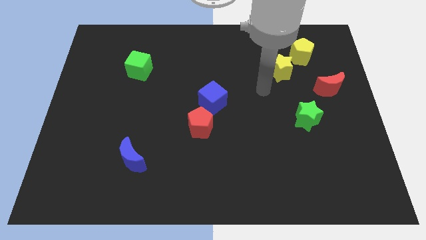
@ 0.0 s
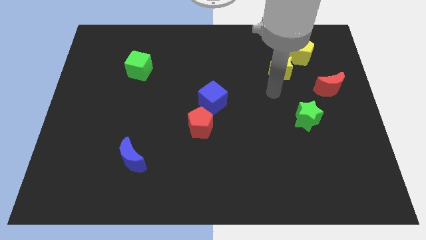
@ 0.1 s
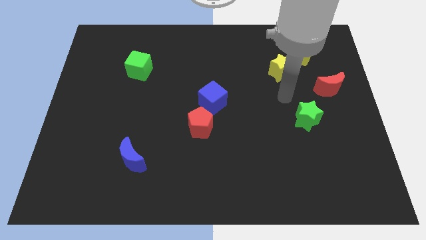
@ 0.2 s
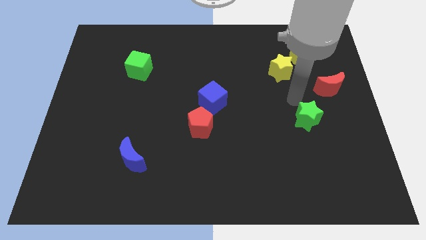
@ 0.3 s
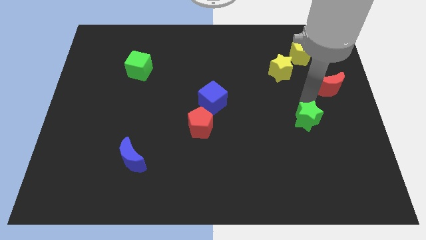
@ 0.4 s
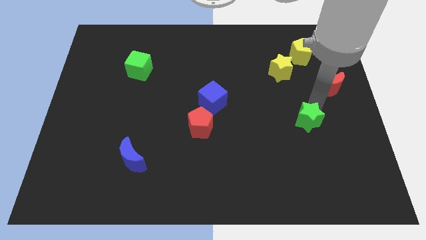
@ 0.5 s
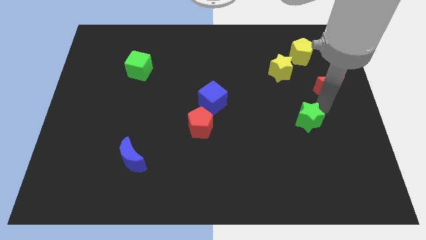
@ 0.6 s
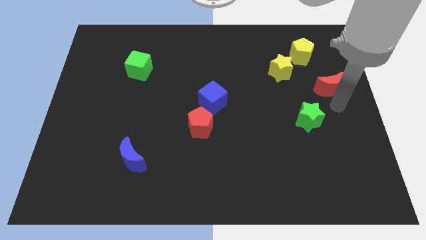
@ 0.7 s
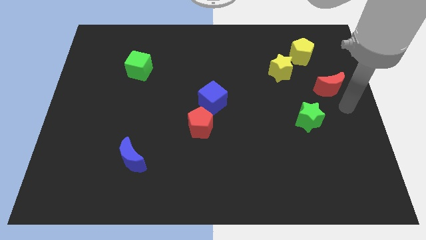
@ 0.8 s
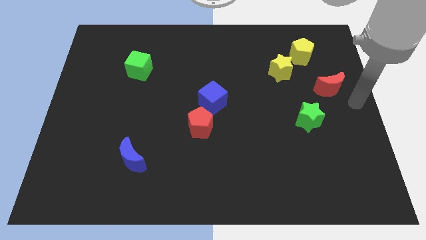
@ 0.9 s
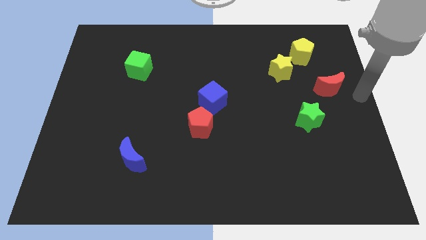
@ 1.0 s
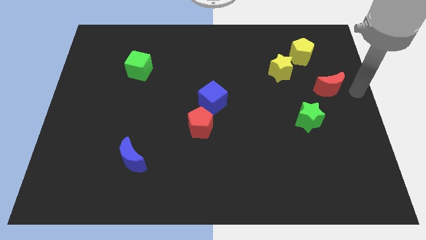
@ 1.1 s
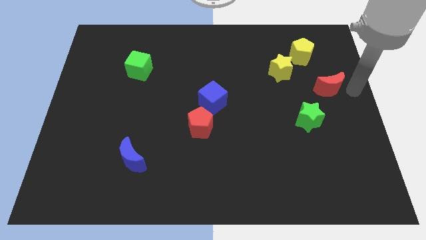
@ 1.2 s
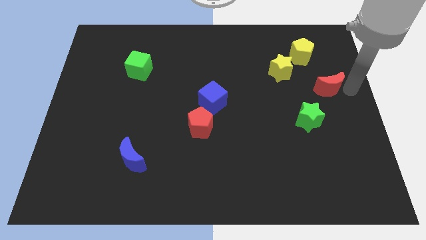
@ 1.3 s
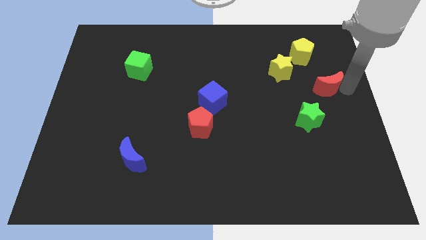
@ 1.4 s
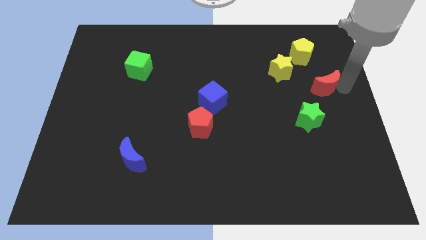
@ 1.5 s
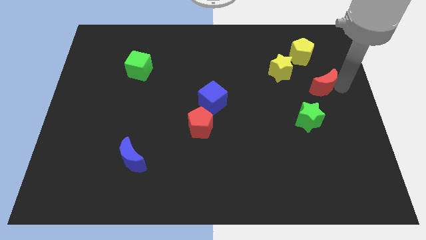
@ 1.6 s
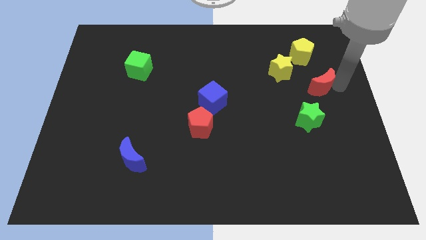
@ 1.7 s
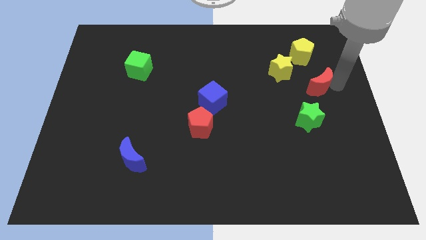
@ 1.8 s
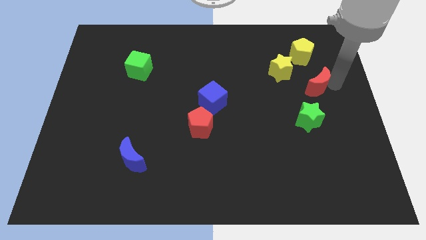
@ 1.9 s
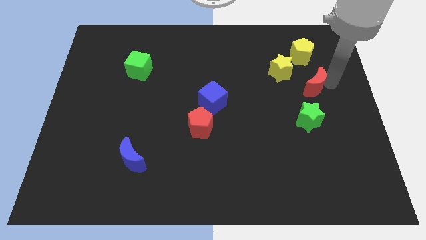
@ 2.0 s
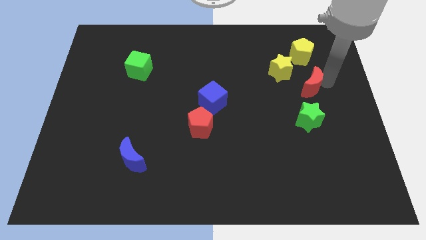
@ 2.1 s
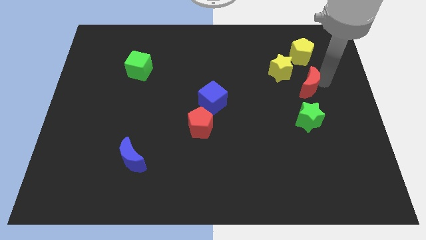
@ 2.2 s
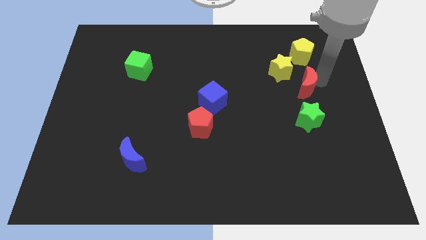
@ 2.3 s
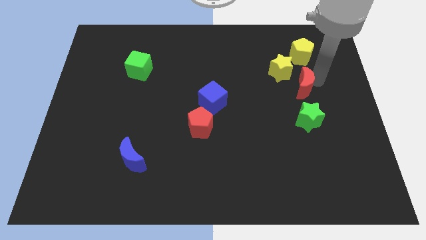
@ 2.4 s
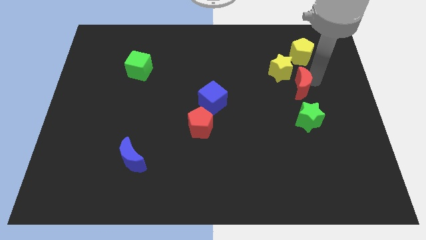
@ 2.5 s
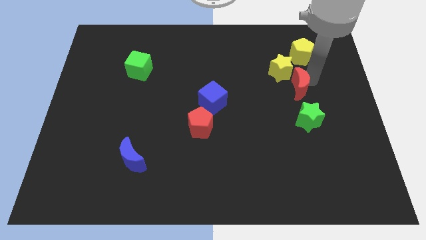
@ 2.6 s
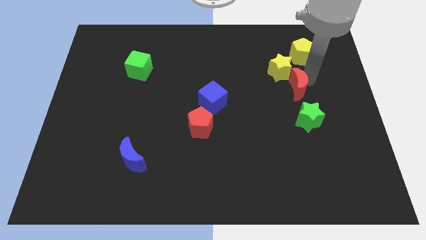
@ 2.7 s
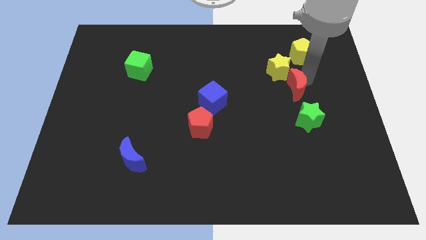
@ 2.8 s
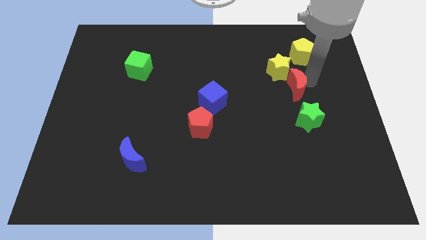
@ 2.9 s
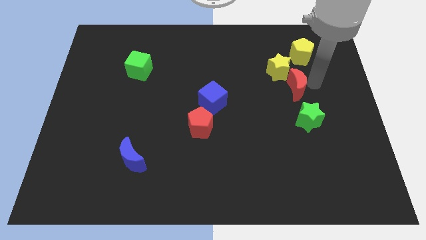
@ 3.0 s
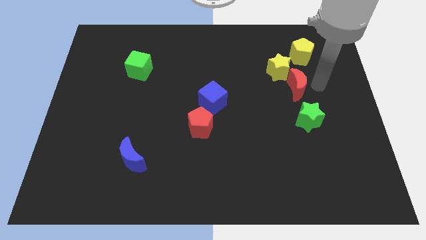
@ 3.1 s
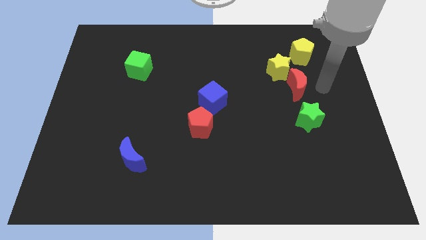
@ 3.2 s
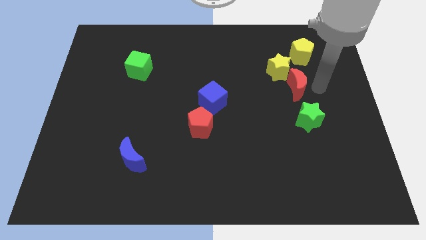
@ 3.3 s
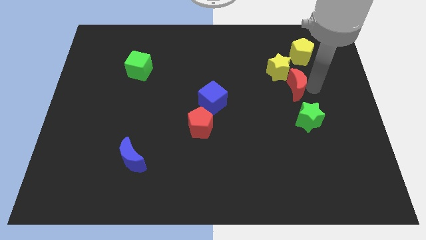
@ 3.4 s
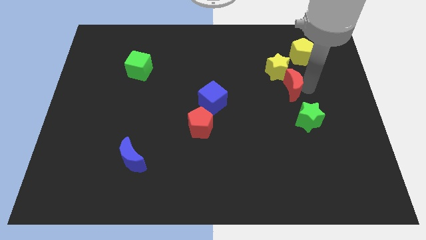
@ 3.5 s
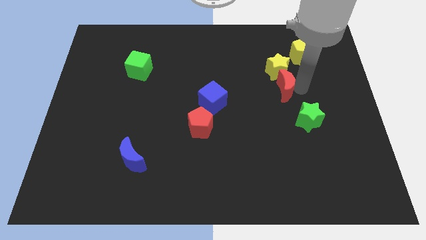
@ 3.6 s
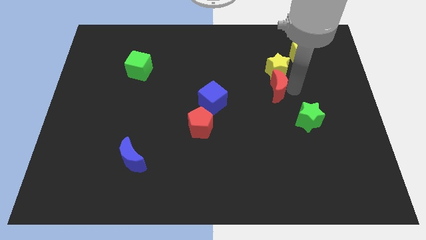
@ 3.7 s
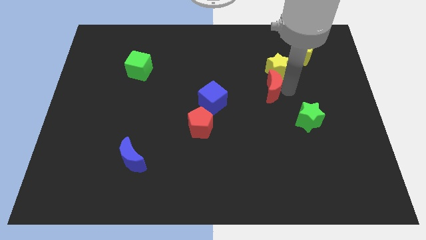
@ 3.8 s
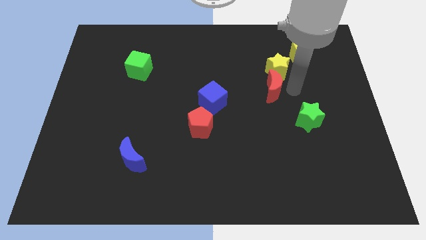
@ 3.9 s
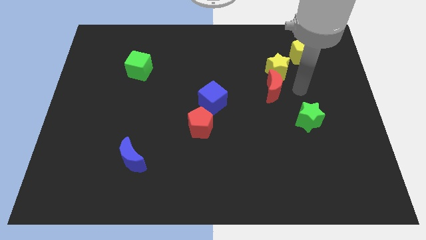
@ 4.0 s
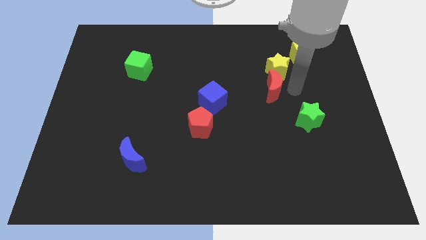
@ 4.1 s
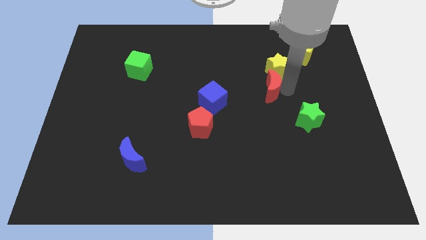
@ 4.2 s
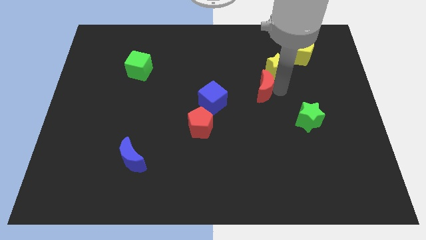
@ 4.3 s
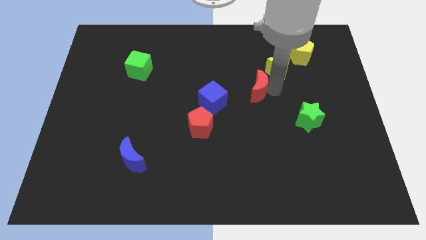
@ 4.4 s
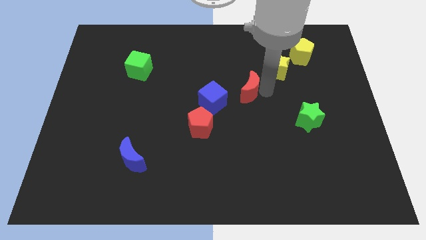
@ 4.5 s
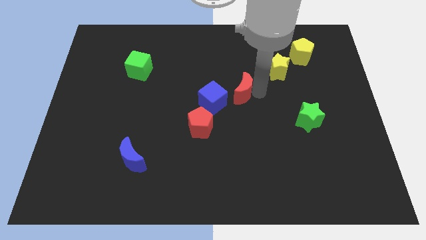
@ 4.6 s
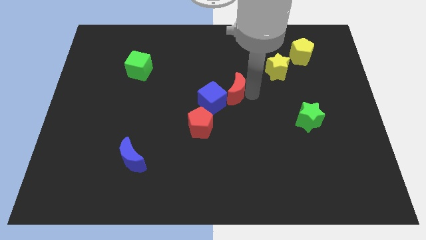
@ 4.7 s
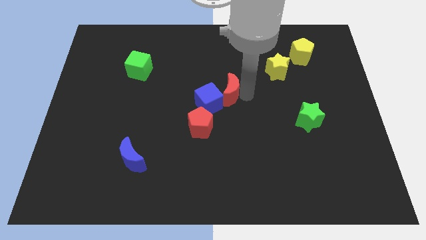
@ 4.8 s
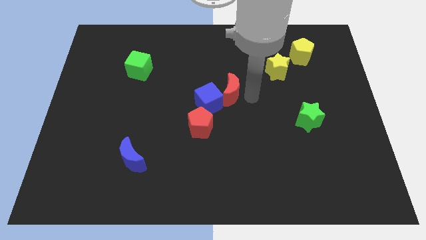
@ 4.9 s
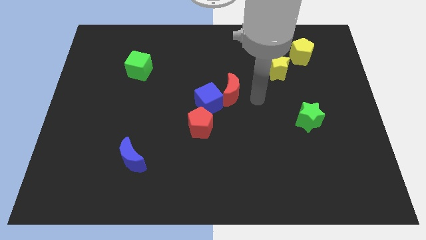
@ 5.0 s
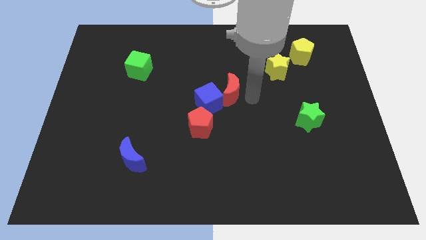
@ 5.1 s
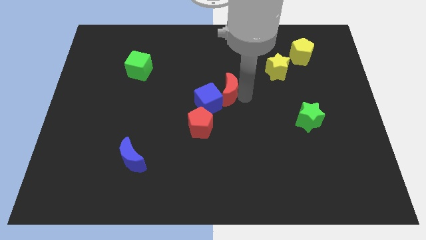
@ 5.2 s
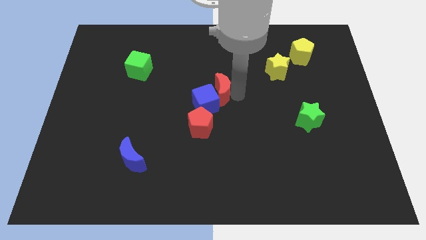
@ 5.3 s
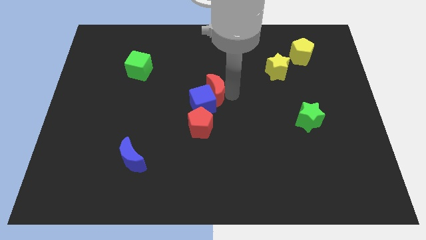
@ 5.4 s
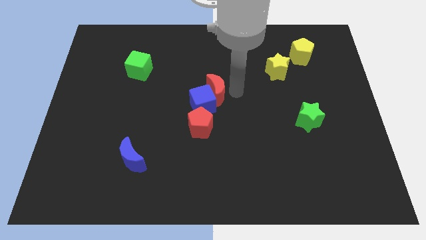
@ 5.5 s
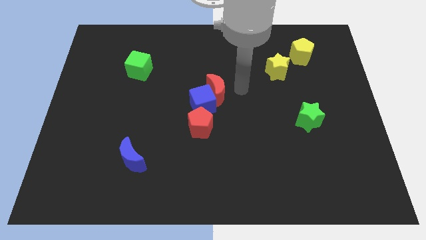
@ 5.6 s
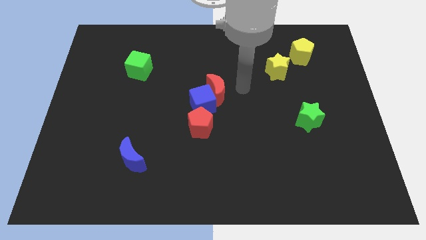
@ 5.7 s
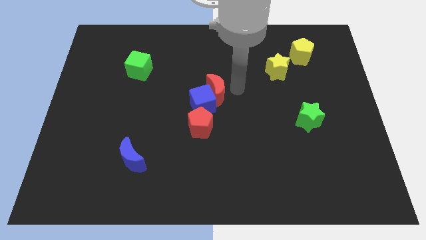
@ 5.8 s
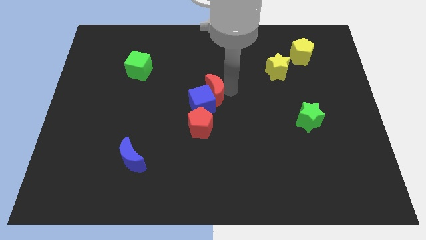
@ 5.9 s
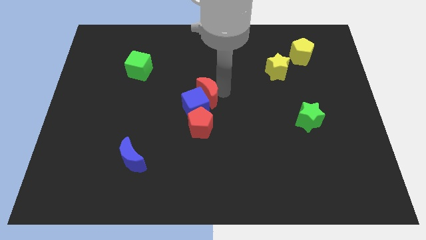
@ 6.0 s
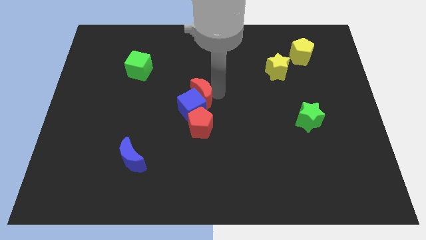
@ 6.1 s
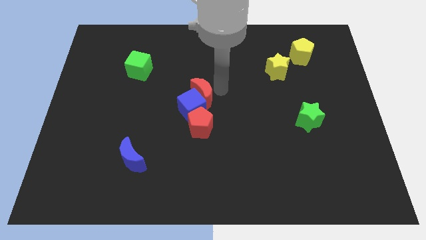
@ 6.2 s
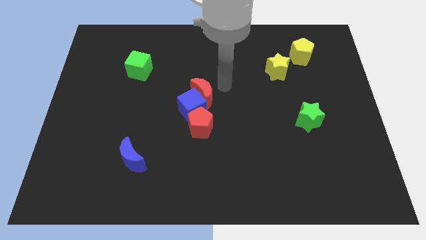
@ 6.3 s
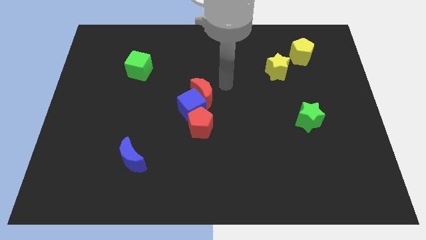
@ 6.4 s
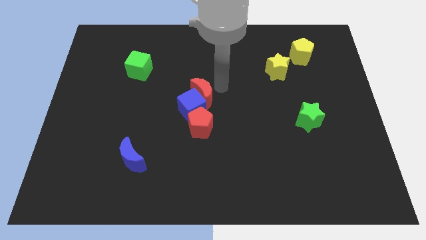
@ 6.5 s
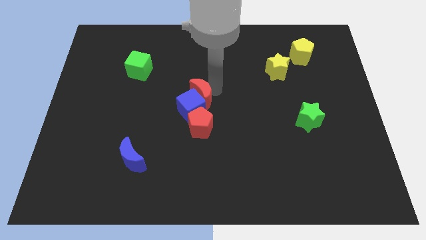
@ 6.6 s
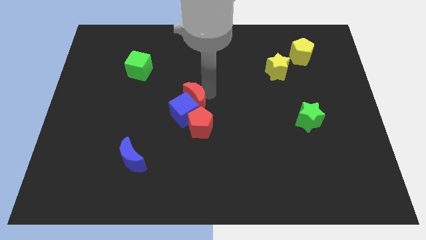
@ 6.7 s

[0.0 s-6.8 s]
move the red moon to the top left of the red pentagon
